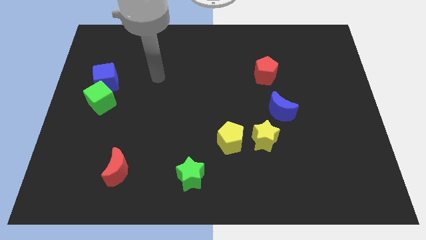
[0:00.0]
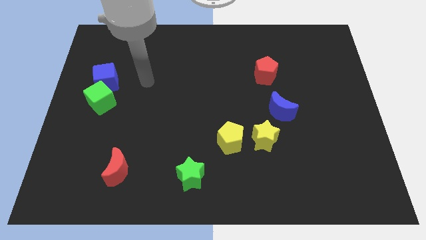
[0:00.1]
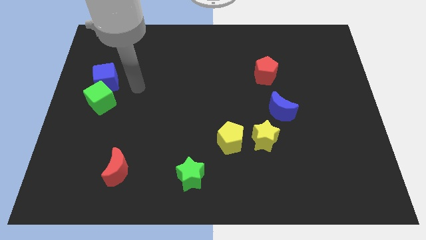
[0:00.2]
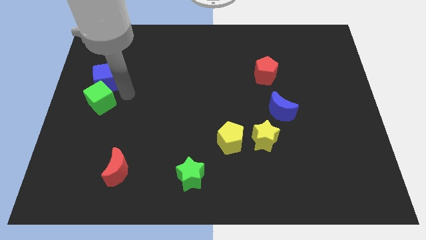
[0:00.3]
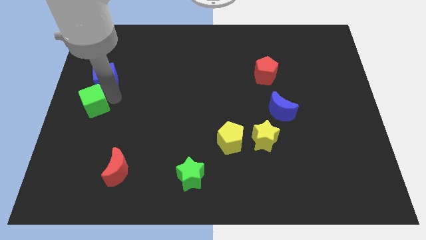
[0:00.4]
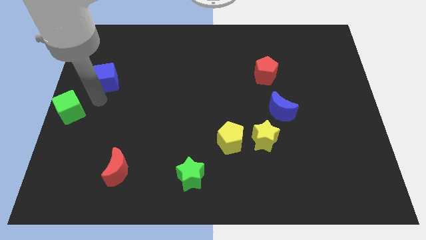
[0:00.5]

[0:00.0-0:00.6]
move the blue cube away from the green cube

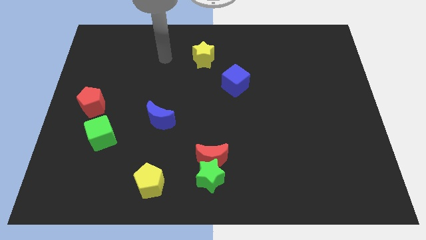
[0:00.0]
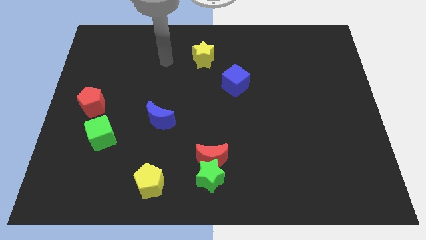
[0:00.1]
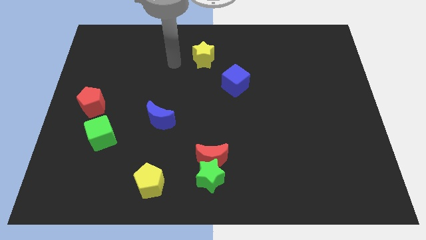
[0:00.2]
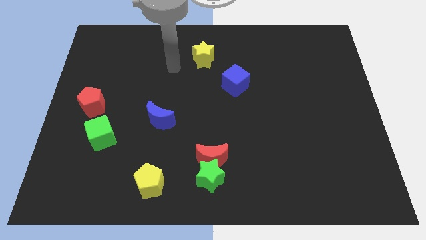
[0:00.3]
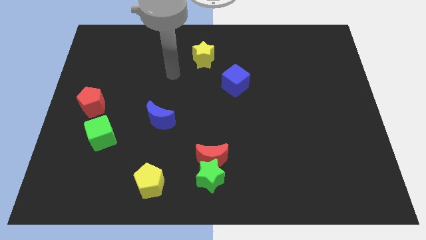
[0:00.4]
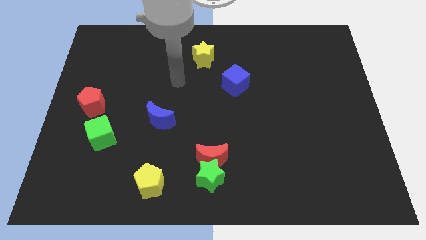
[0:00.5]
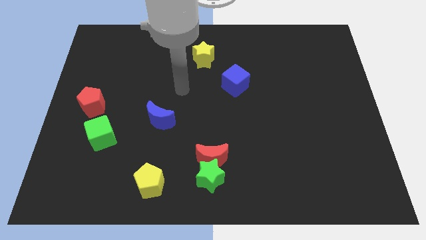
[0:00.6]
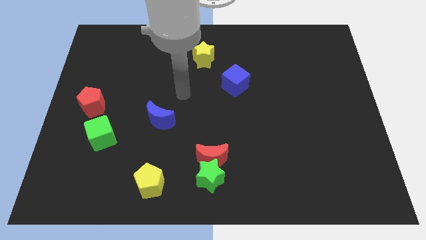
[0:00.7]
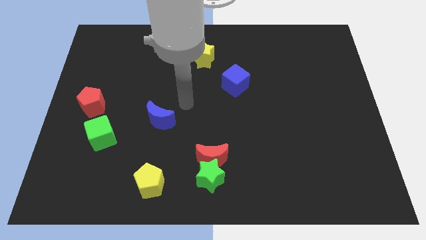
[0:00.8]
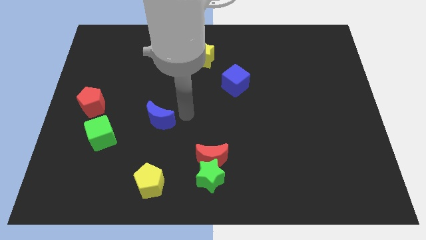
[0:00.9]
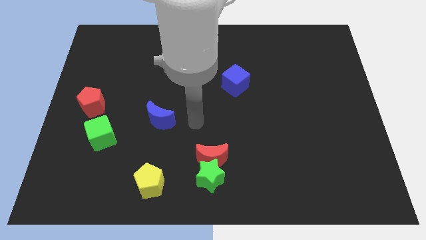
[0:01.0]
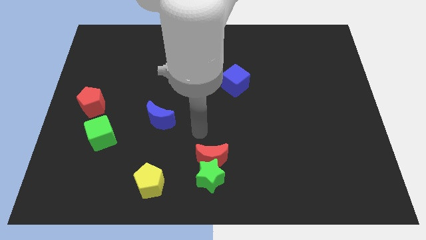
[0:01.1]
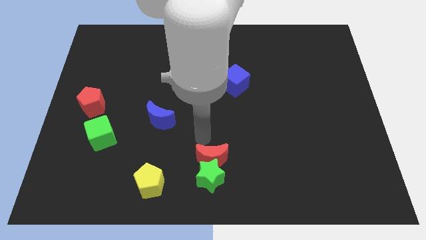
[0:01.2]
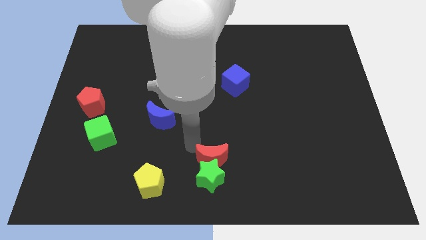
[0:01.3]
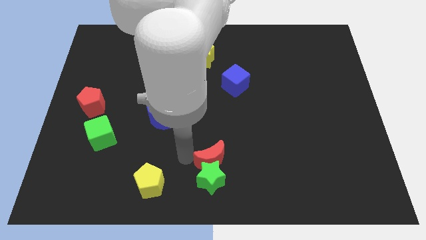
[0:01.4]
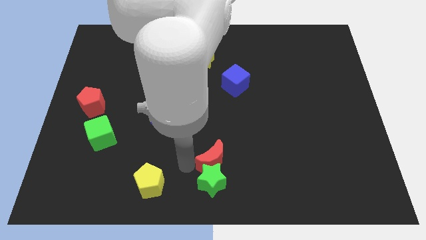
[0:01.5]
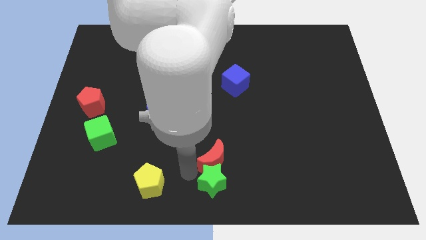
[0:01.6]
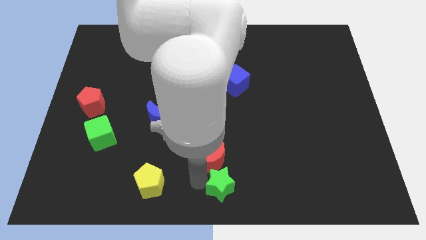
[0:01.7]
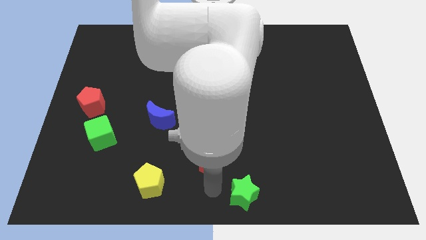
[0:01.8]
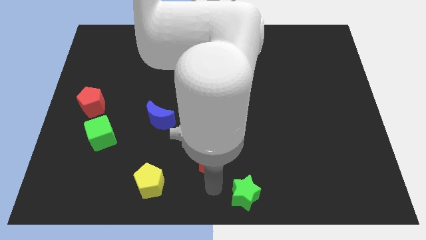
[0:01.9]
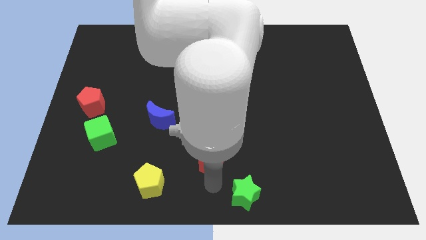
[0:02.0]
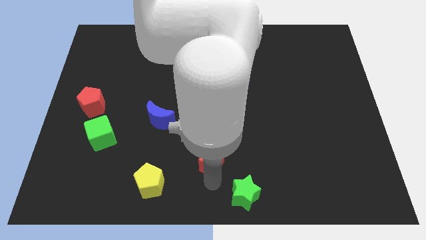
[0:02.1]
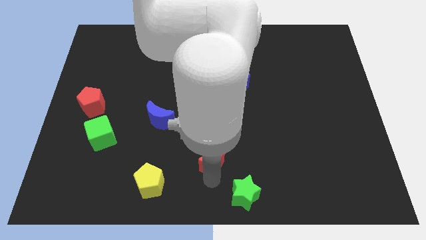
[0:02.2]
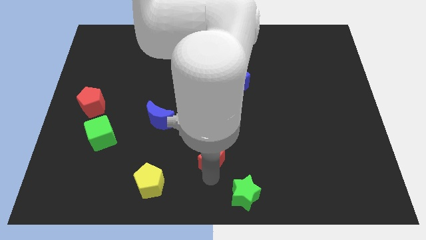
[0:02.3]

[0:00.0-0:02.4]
move the red moon away from the green star

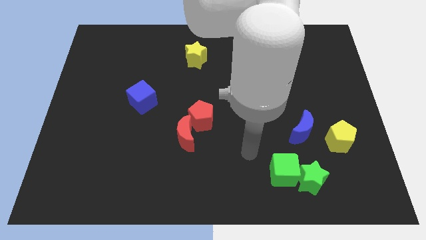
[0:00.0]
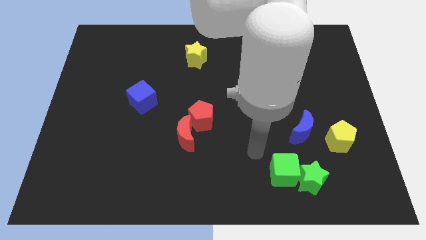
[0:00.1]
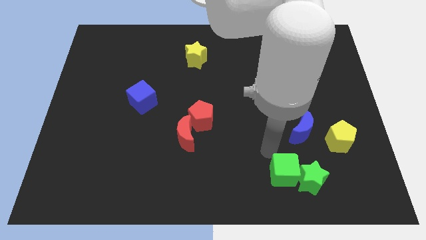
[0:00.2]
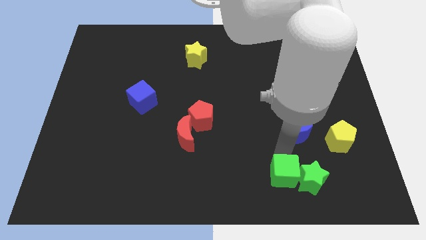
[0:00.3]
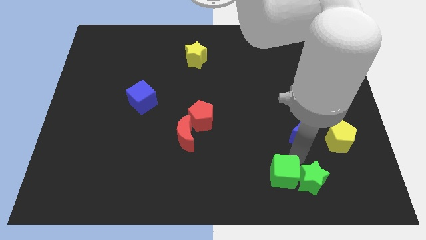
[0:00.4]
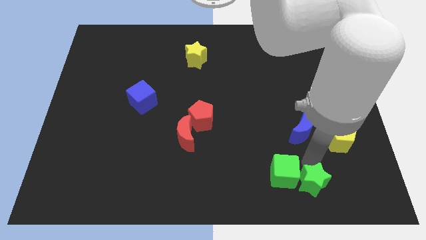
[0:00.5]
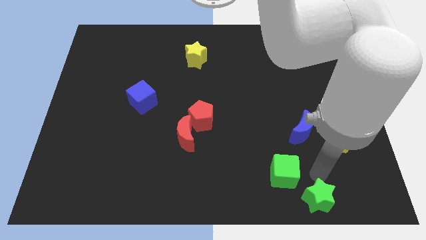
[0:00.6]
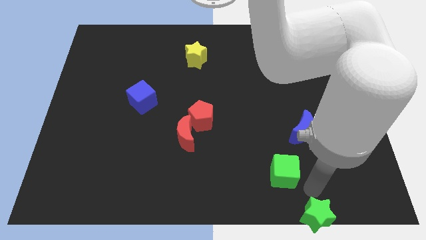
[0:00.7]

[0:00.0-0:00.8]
move the green cube away from the green star

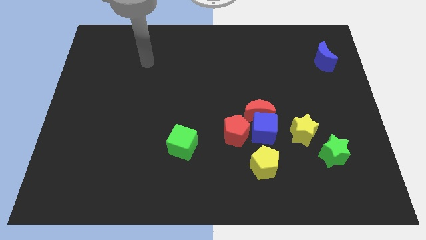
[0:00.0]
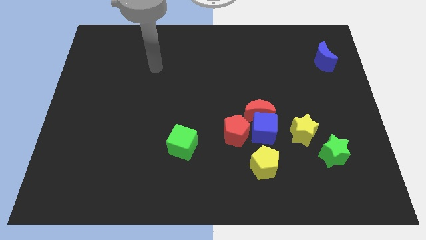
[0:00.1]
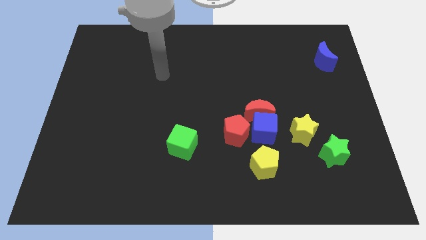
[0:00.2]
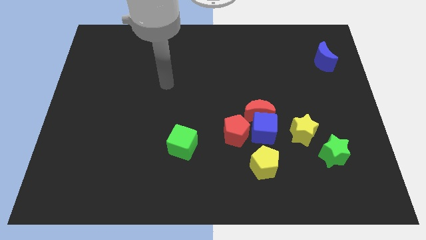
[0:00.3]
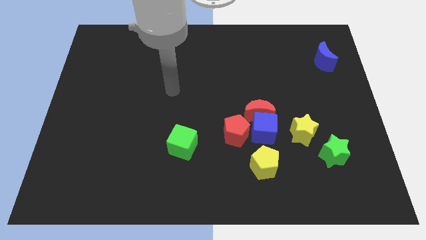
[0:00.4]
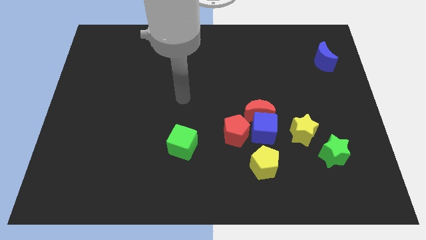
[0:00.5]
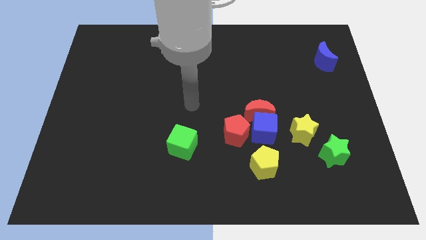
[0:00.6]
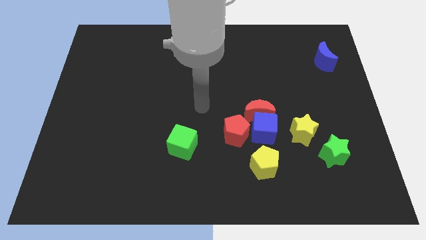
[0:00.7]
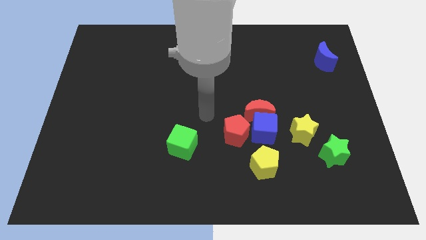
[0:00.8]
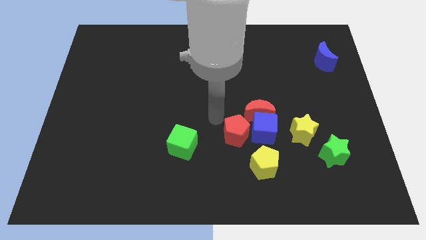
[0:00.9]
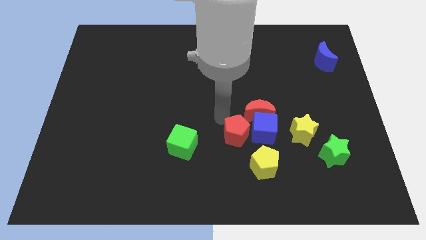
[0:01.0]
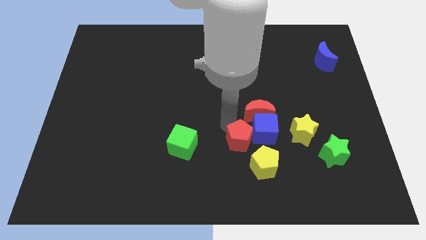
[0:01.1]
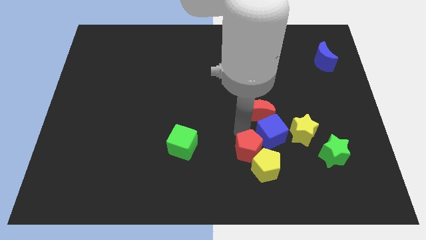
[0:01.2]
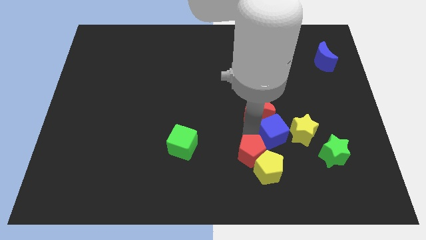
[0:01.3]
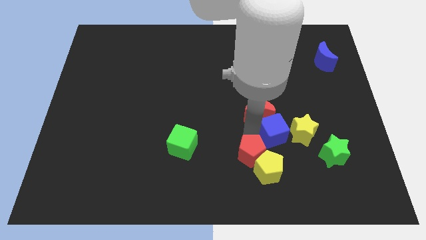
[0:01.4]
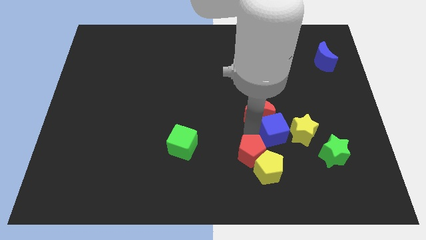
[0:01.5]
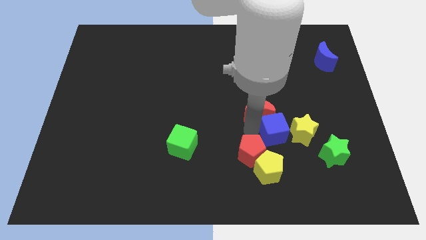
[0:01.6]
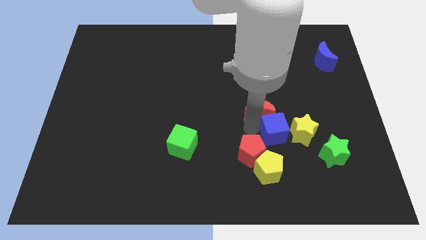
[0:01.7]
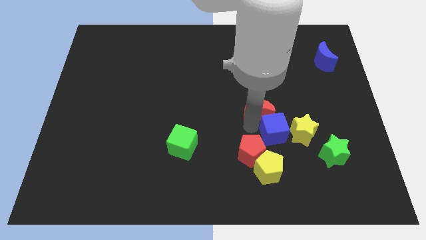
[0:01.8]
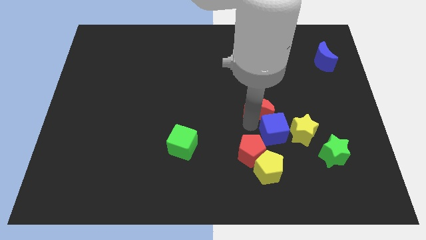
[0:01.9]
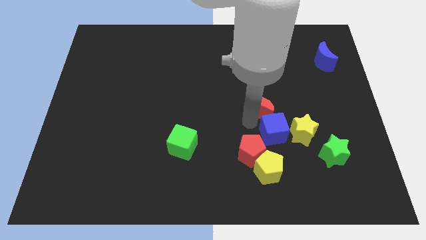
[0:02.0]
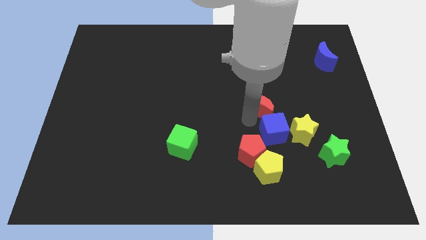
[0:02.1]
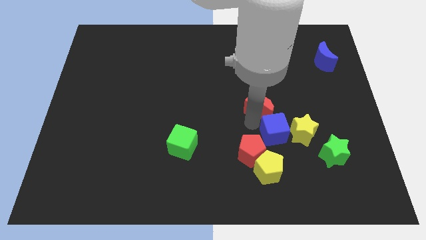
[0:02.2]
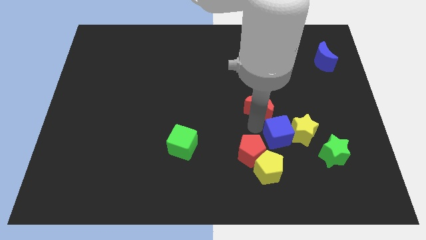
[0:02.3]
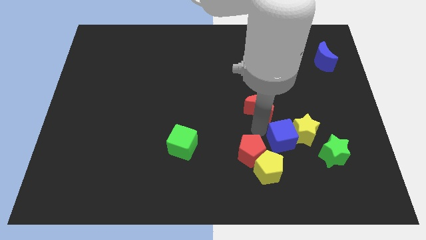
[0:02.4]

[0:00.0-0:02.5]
separate the red moon from the blue cube and red pentagon

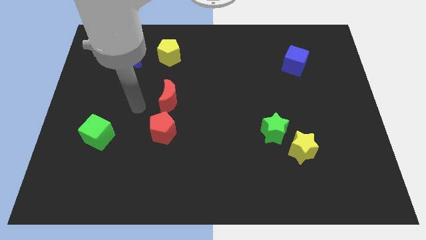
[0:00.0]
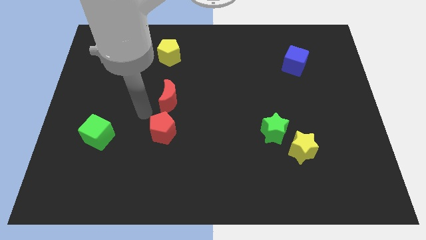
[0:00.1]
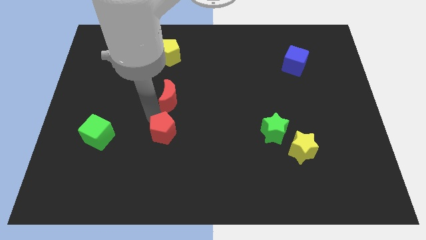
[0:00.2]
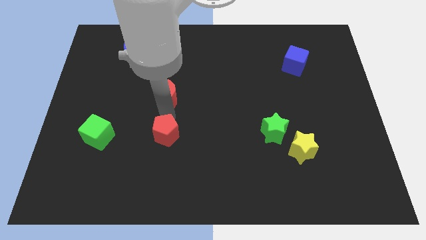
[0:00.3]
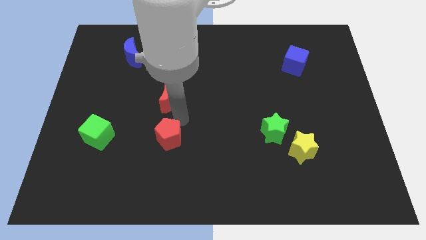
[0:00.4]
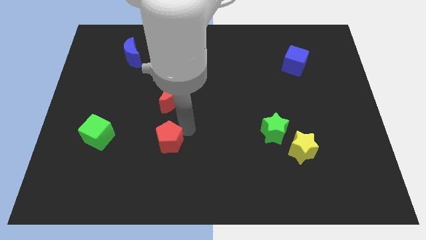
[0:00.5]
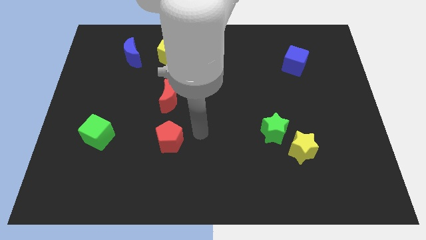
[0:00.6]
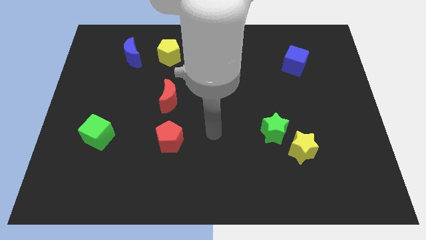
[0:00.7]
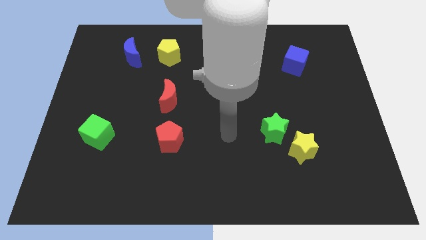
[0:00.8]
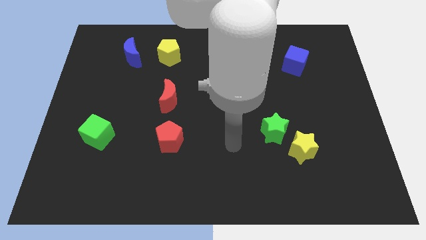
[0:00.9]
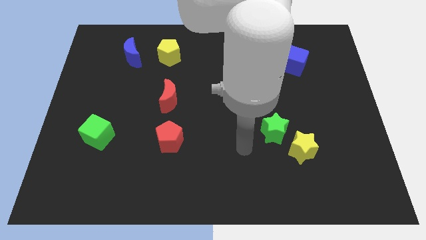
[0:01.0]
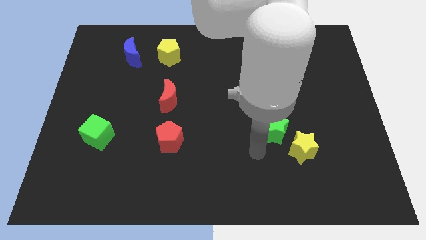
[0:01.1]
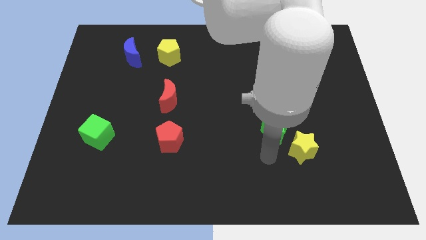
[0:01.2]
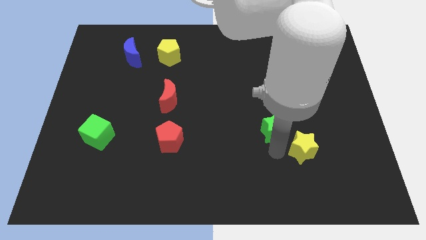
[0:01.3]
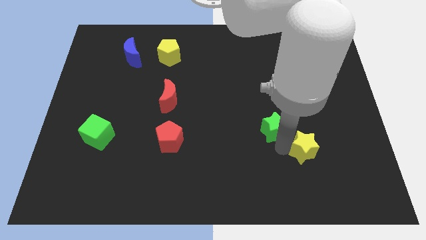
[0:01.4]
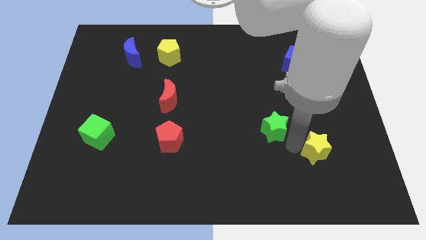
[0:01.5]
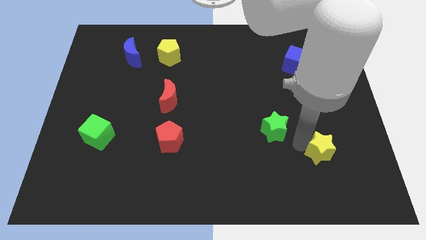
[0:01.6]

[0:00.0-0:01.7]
move the green star away from the yellow star

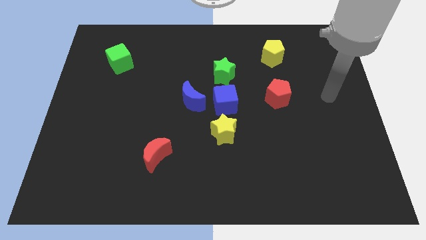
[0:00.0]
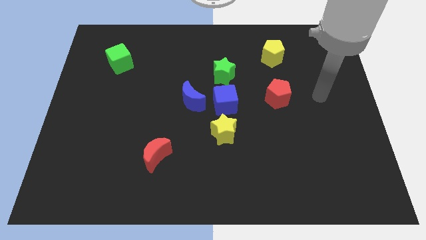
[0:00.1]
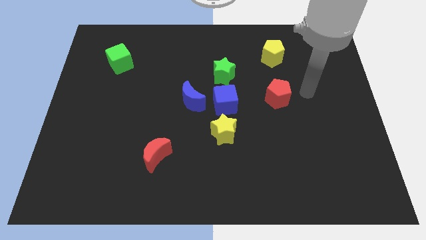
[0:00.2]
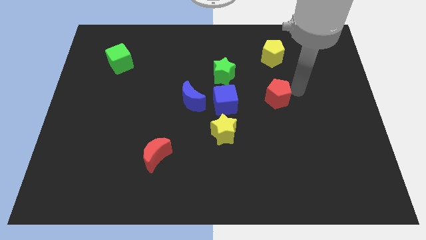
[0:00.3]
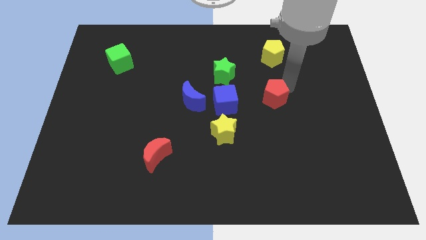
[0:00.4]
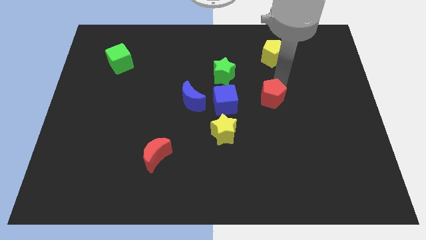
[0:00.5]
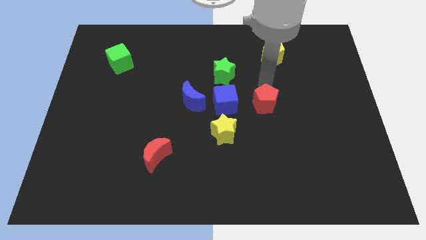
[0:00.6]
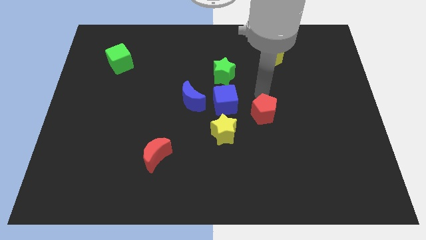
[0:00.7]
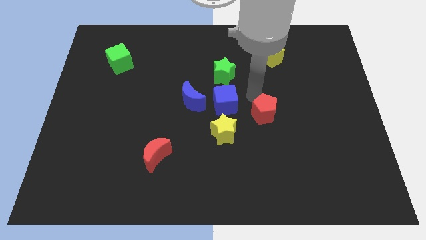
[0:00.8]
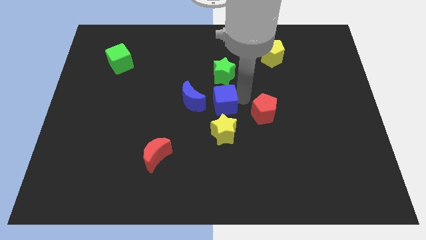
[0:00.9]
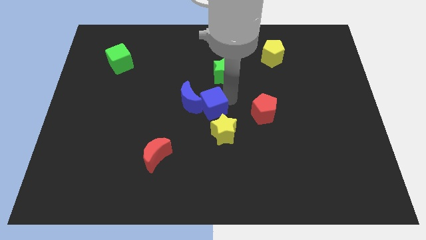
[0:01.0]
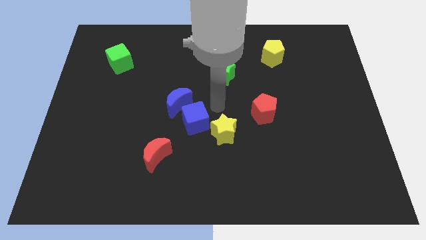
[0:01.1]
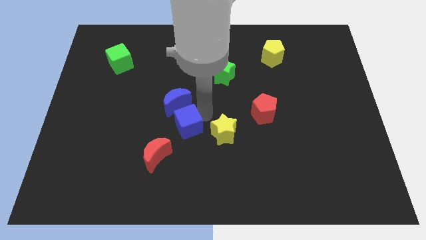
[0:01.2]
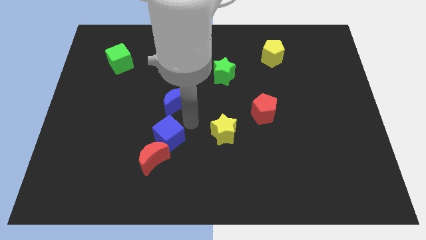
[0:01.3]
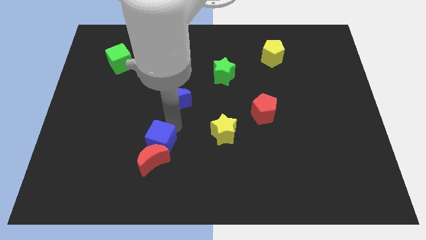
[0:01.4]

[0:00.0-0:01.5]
move the blue moon away from the blue cube

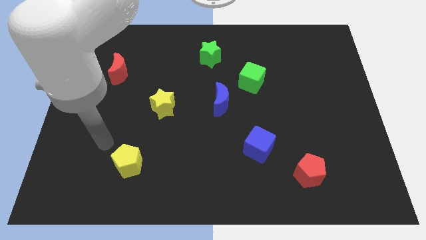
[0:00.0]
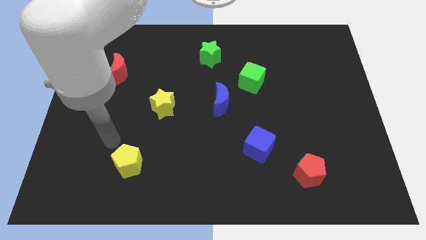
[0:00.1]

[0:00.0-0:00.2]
separate the blue moon from the green cube
